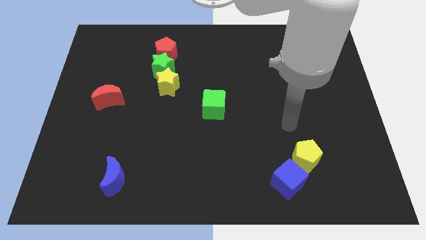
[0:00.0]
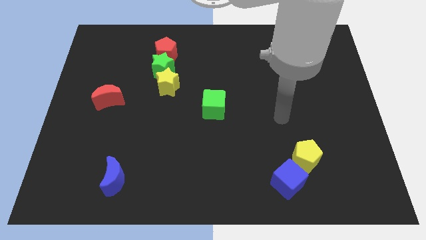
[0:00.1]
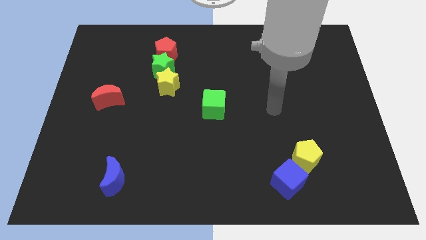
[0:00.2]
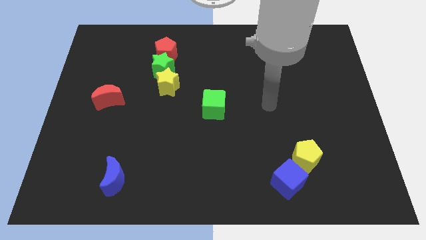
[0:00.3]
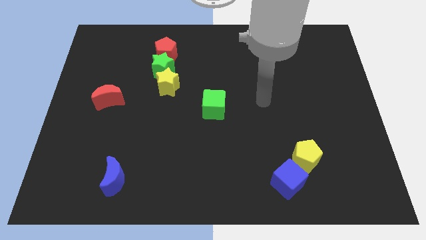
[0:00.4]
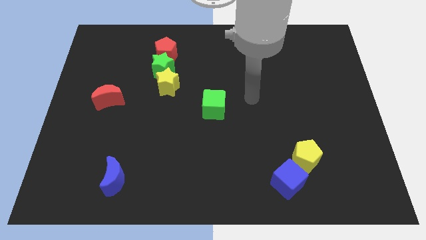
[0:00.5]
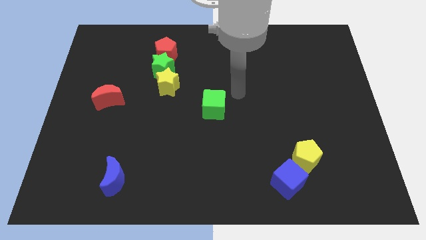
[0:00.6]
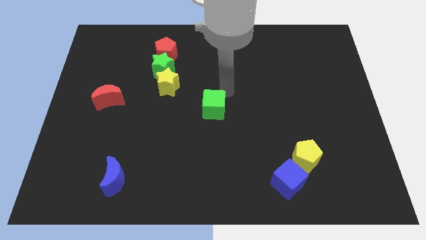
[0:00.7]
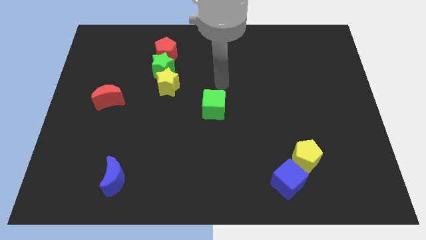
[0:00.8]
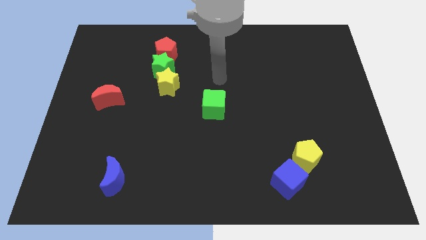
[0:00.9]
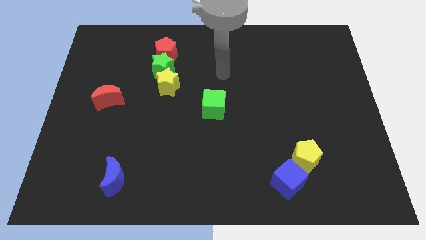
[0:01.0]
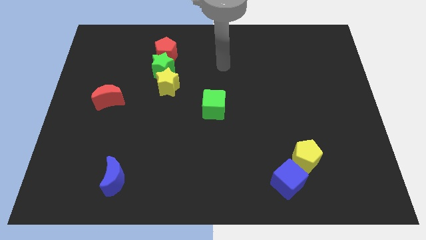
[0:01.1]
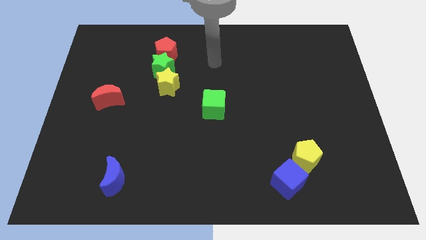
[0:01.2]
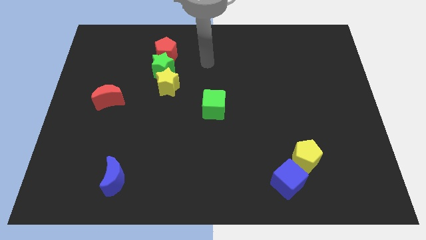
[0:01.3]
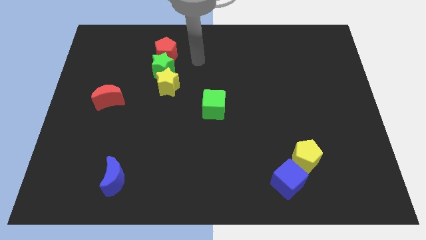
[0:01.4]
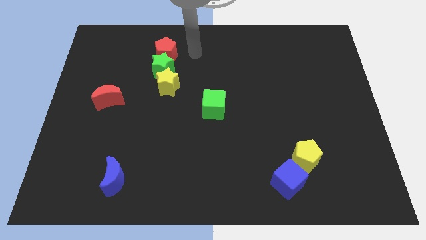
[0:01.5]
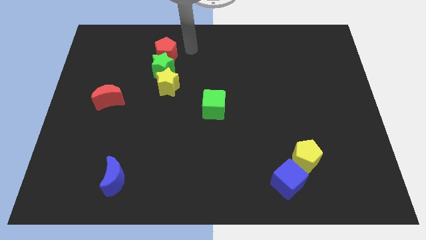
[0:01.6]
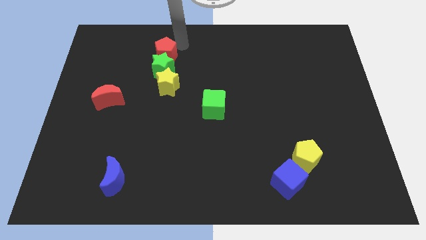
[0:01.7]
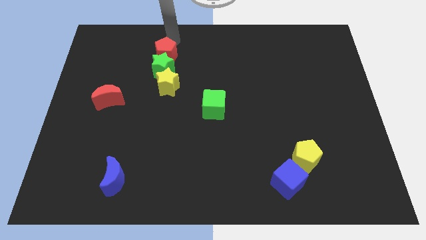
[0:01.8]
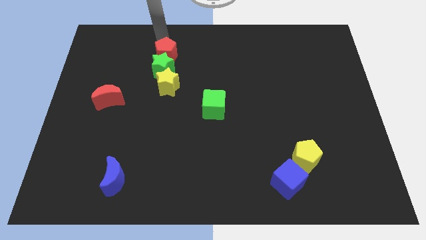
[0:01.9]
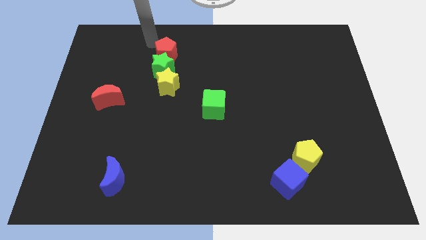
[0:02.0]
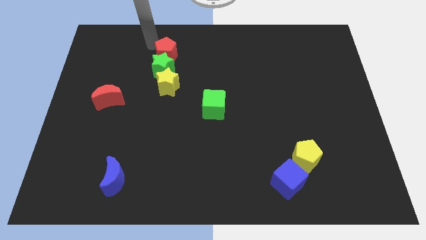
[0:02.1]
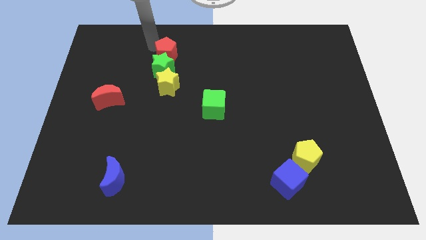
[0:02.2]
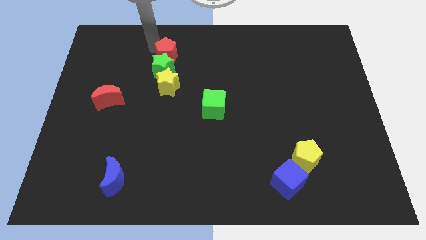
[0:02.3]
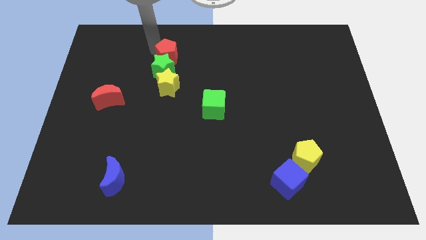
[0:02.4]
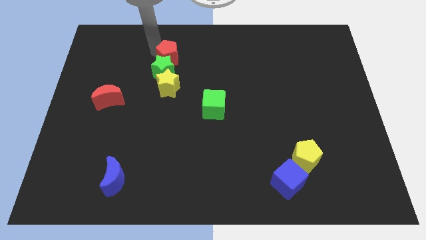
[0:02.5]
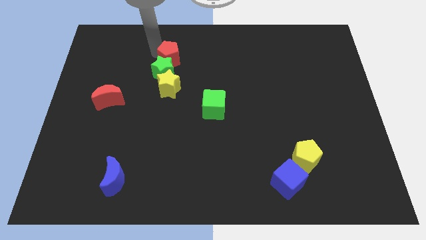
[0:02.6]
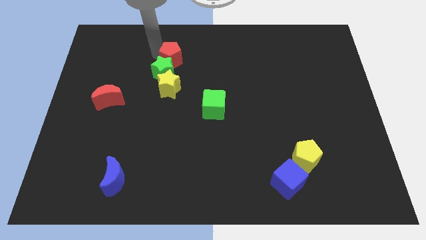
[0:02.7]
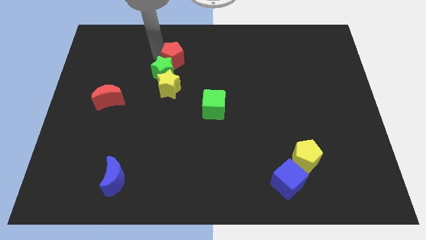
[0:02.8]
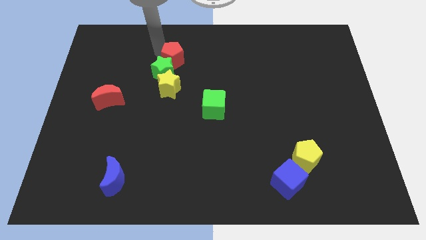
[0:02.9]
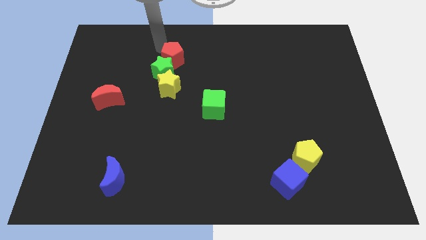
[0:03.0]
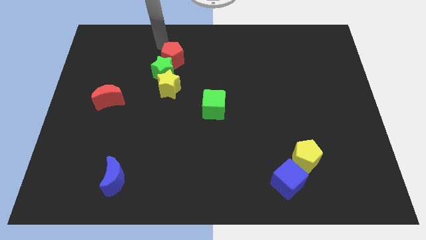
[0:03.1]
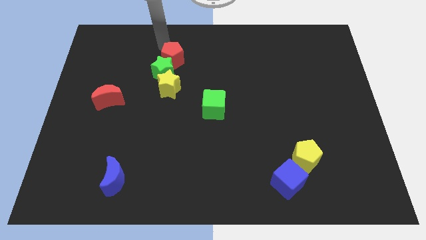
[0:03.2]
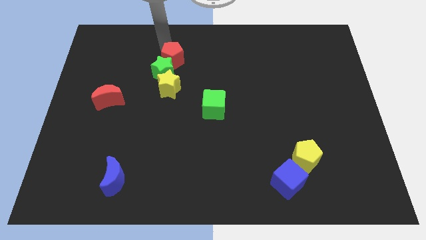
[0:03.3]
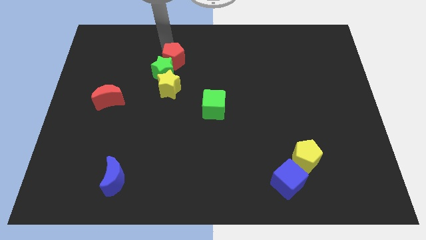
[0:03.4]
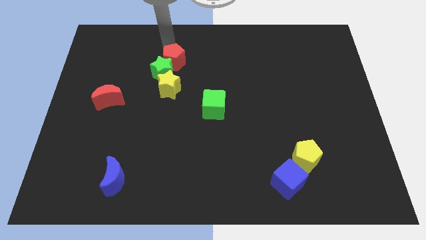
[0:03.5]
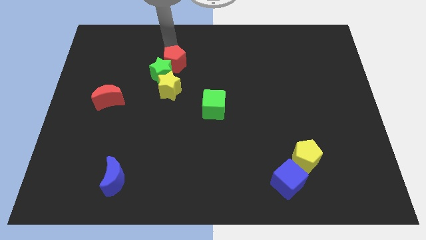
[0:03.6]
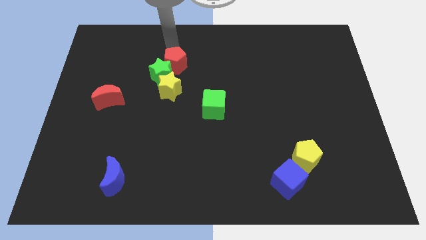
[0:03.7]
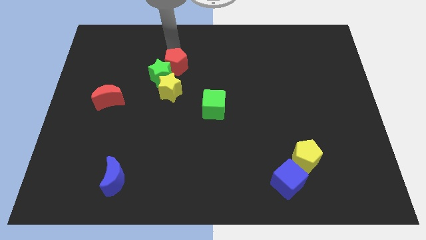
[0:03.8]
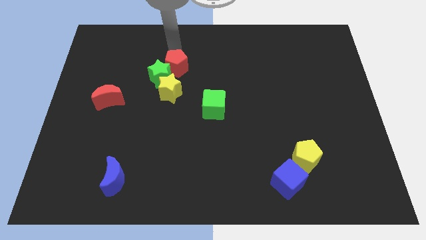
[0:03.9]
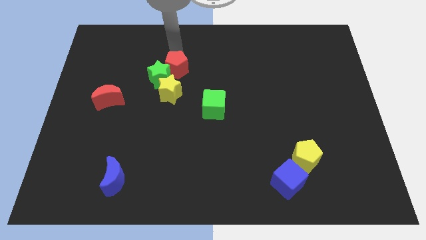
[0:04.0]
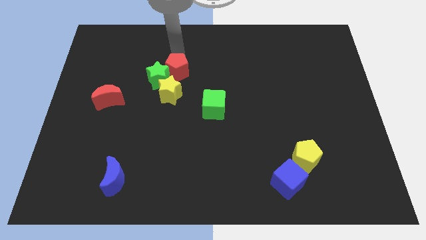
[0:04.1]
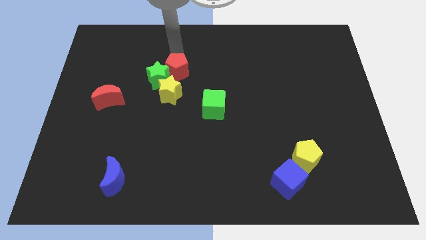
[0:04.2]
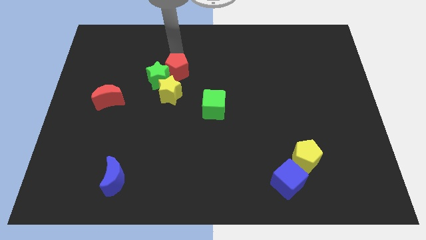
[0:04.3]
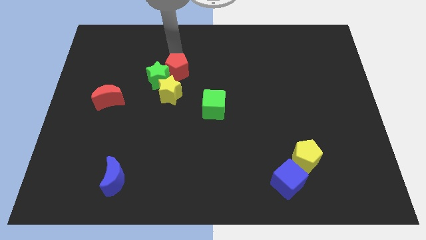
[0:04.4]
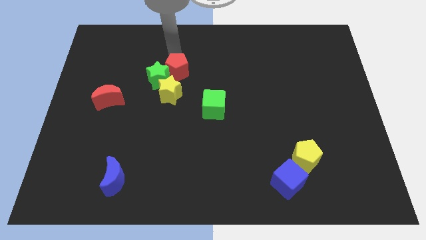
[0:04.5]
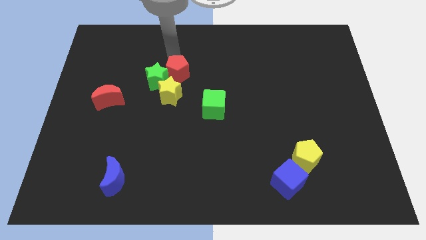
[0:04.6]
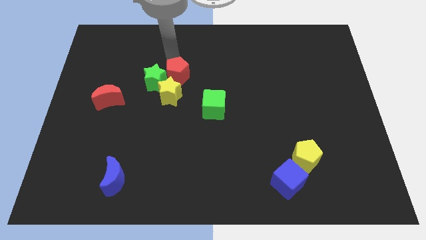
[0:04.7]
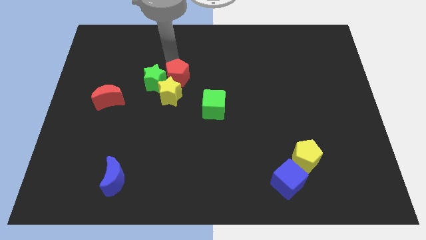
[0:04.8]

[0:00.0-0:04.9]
push the red pentagon to the bottom right of the green star

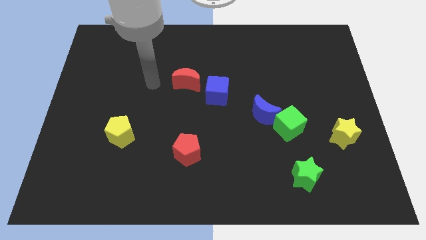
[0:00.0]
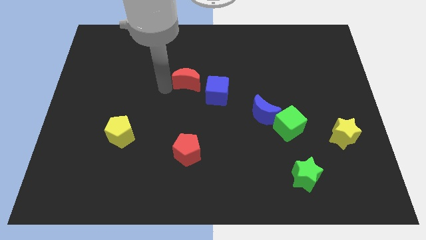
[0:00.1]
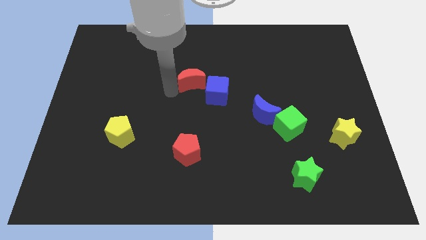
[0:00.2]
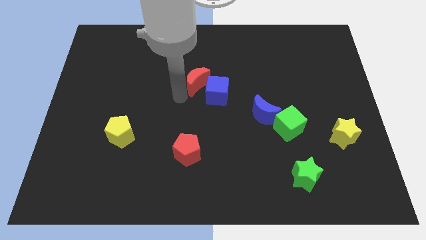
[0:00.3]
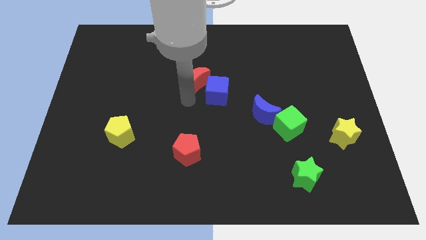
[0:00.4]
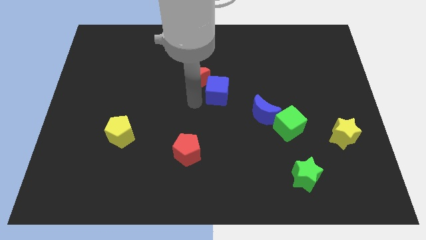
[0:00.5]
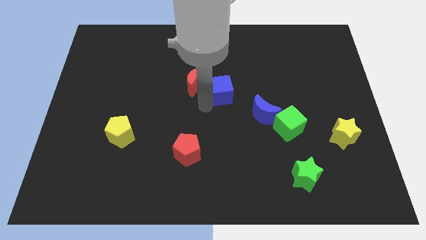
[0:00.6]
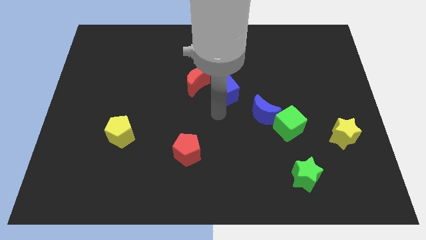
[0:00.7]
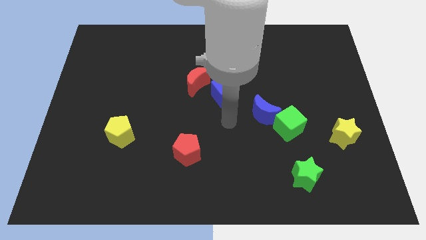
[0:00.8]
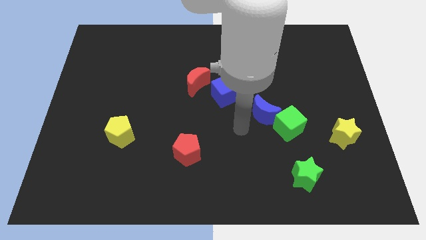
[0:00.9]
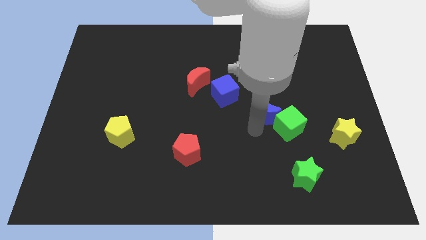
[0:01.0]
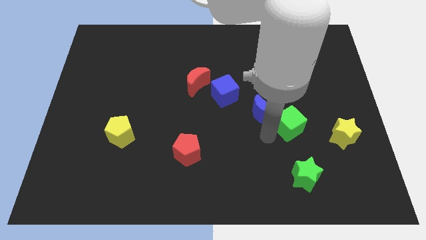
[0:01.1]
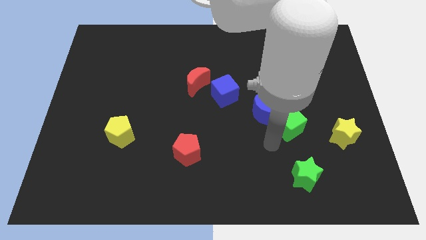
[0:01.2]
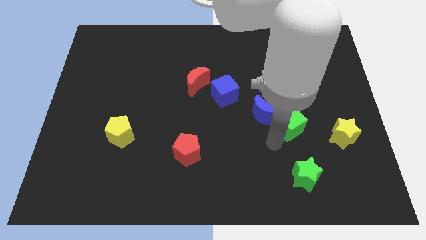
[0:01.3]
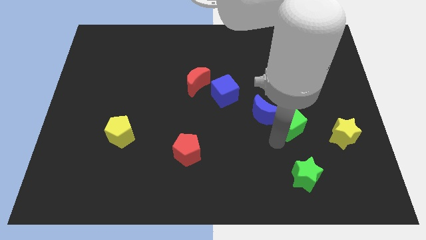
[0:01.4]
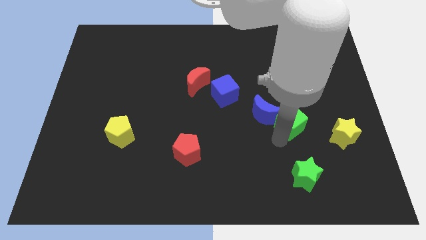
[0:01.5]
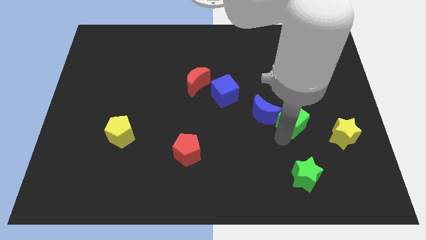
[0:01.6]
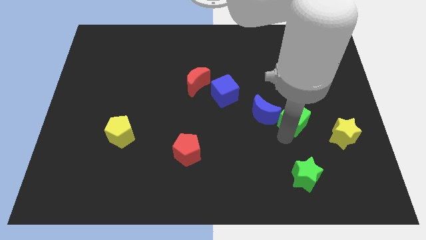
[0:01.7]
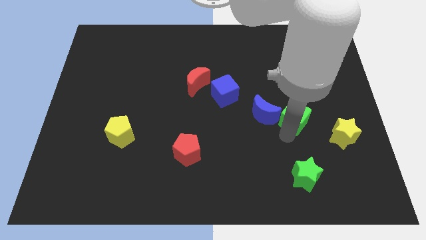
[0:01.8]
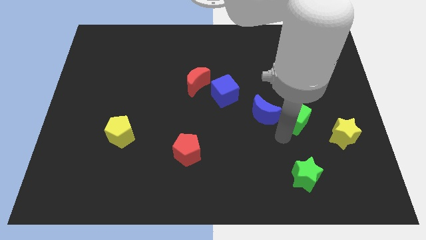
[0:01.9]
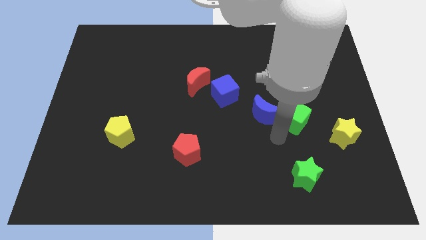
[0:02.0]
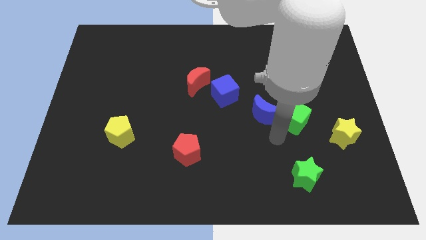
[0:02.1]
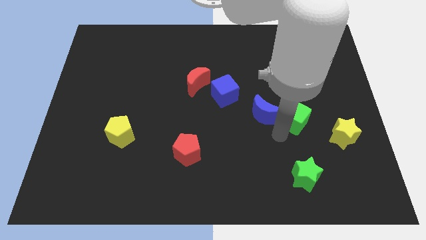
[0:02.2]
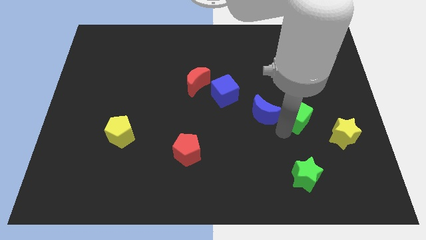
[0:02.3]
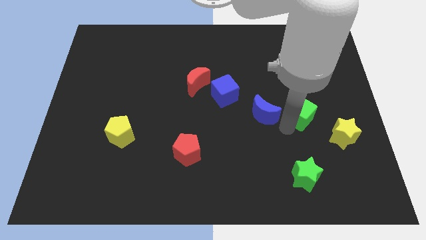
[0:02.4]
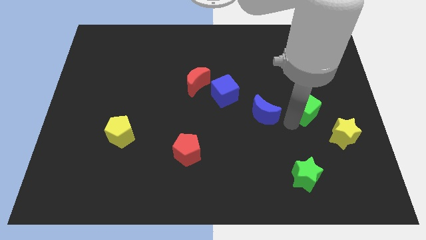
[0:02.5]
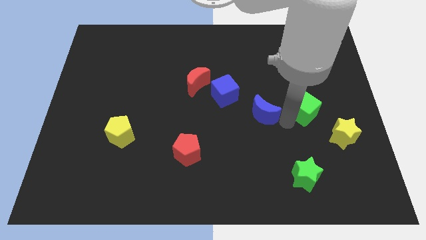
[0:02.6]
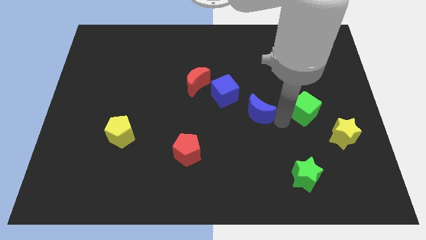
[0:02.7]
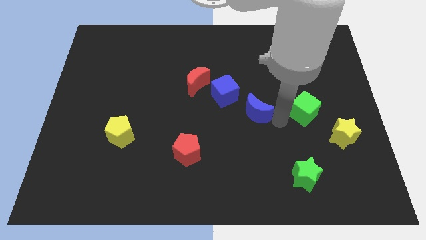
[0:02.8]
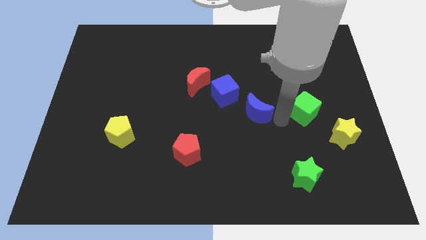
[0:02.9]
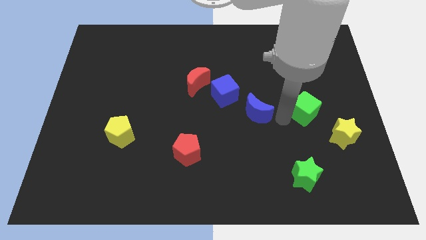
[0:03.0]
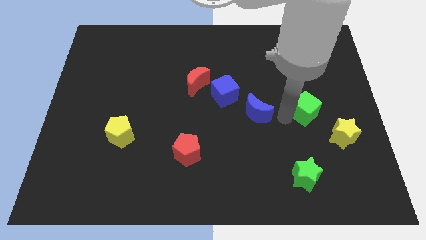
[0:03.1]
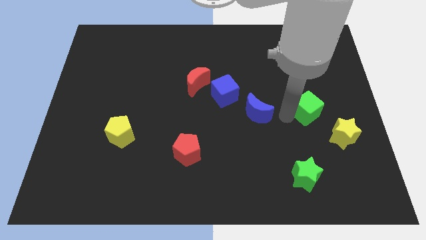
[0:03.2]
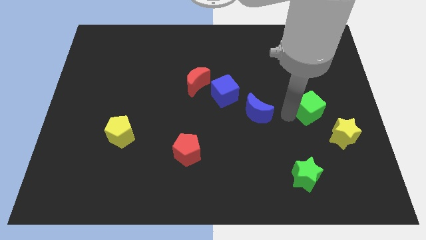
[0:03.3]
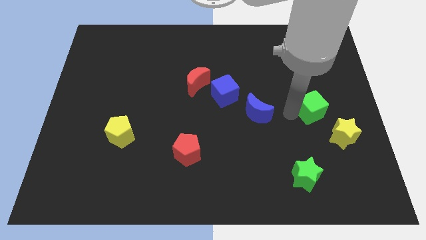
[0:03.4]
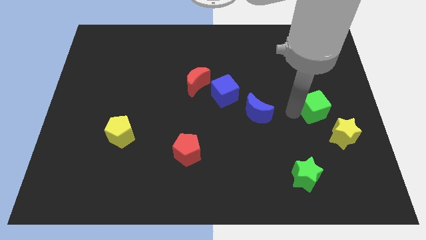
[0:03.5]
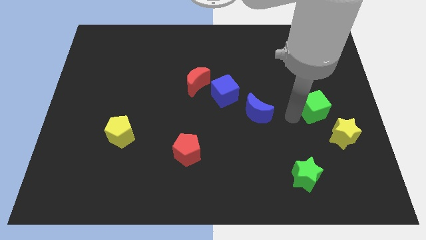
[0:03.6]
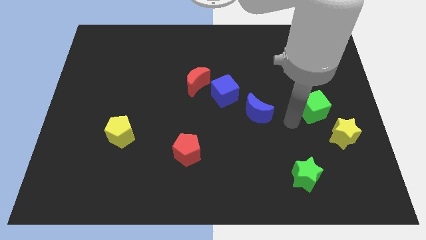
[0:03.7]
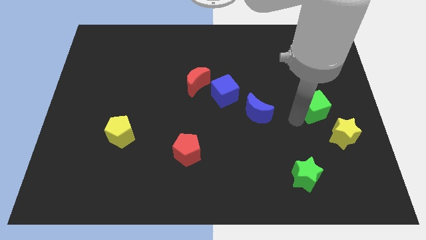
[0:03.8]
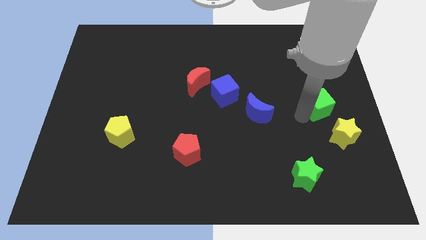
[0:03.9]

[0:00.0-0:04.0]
slide the green cube to the top side of the yellow star
